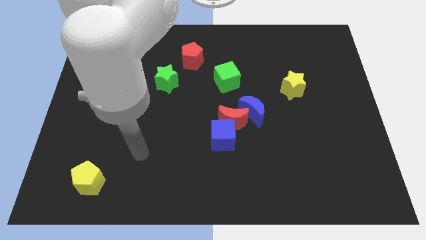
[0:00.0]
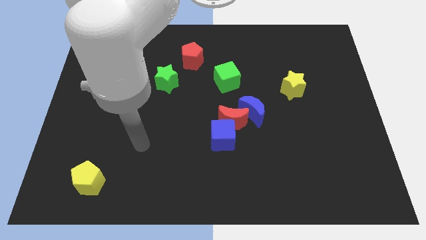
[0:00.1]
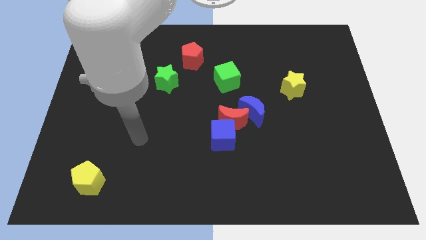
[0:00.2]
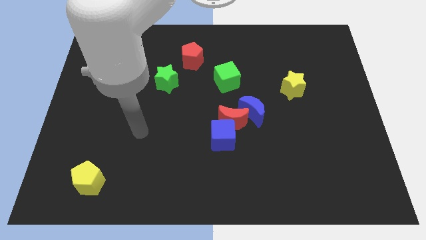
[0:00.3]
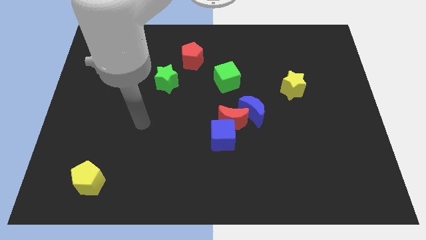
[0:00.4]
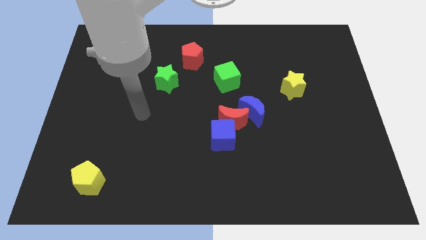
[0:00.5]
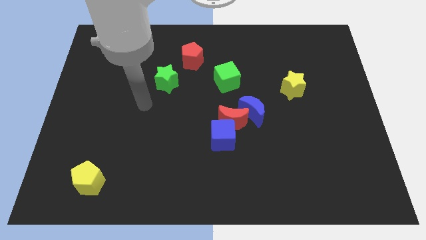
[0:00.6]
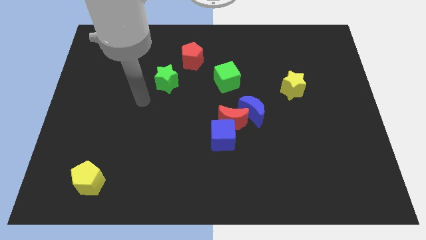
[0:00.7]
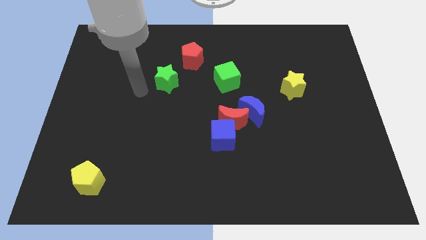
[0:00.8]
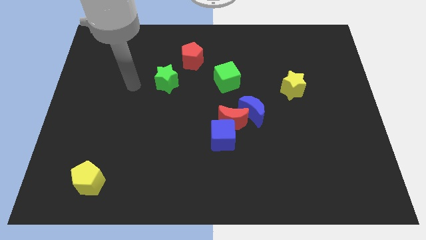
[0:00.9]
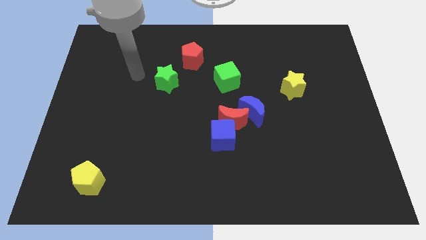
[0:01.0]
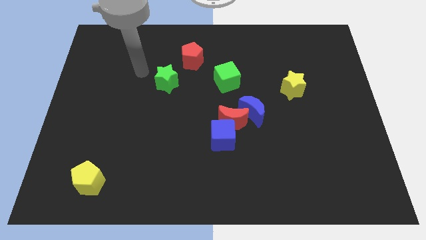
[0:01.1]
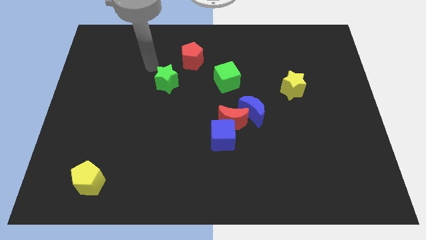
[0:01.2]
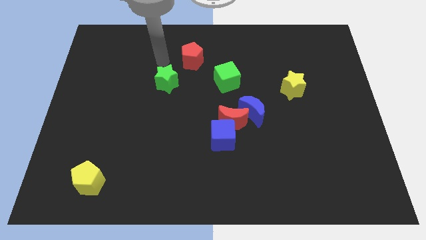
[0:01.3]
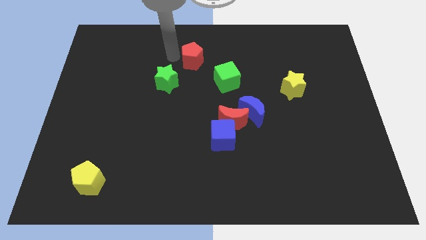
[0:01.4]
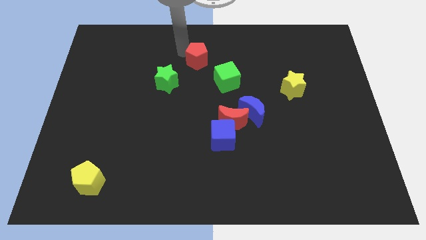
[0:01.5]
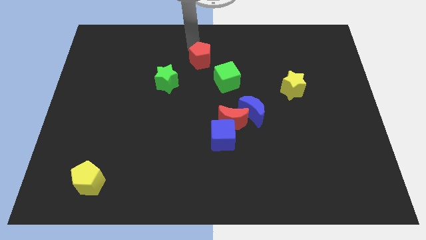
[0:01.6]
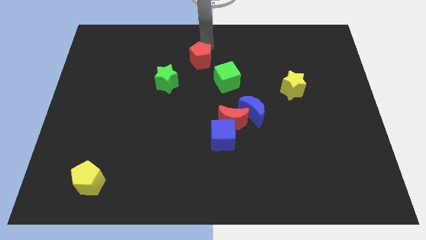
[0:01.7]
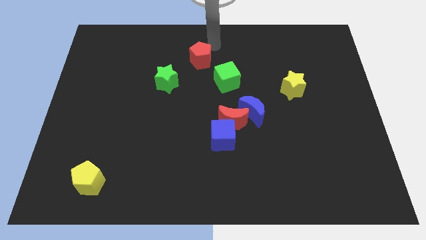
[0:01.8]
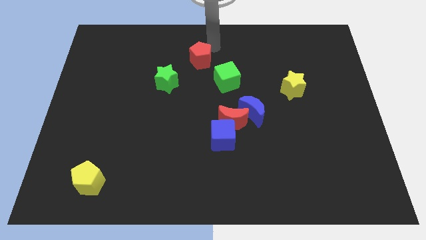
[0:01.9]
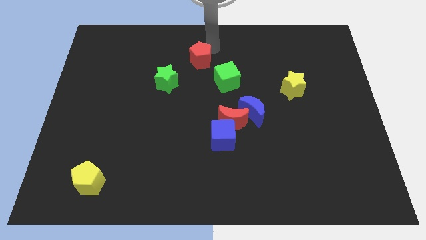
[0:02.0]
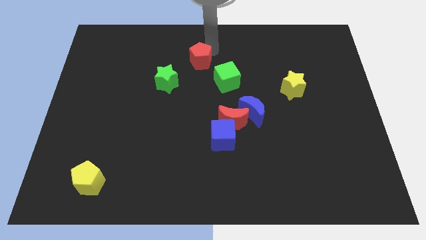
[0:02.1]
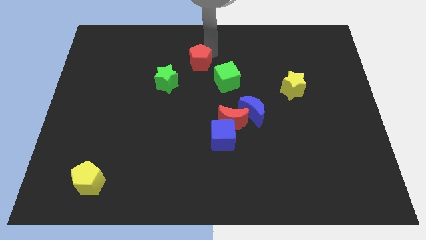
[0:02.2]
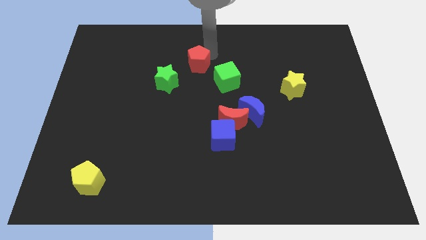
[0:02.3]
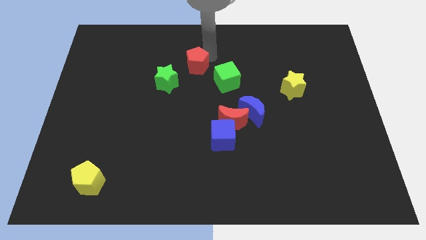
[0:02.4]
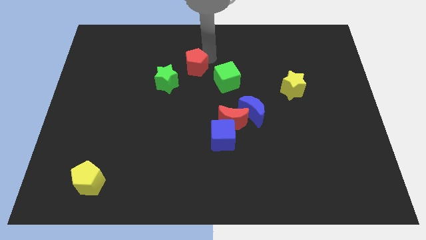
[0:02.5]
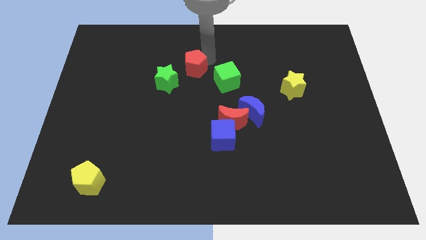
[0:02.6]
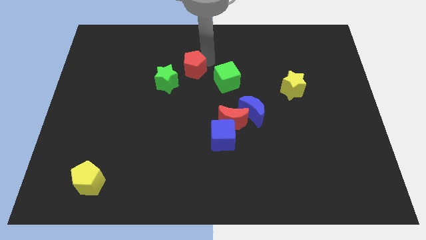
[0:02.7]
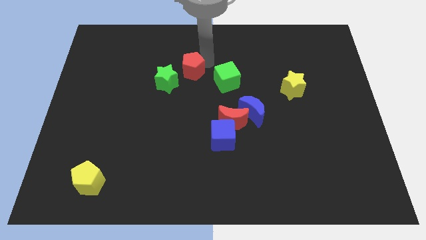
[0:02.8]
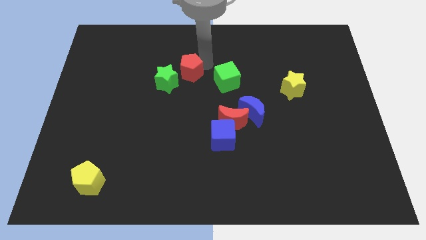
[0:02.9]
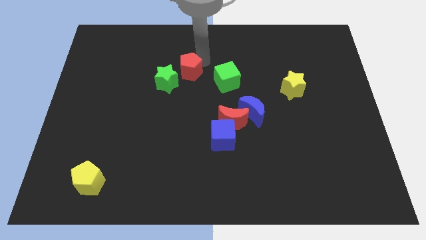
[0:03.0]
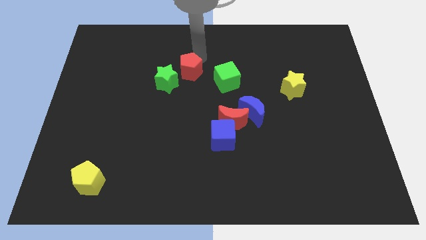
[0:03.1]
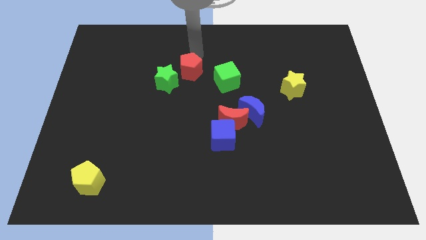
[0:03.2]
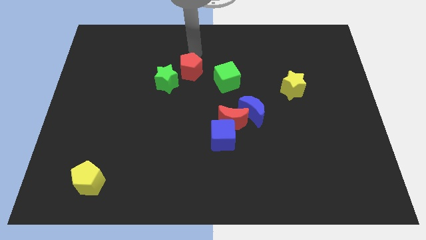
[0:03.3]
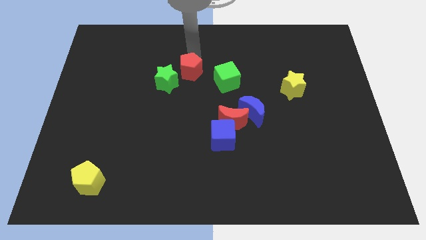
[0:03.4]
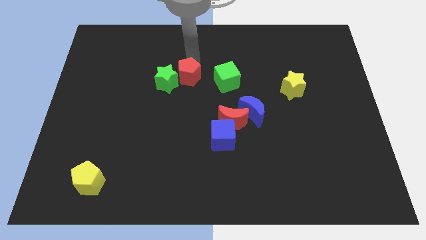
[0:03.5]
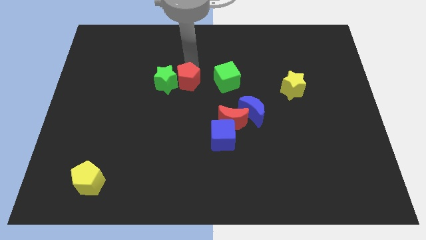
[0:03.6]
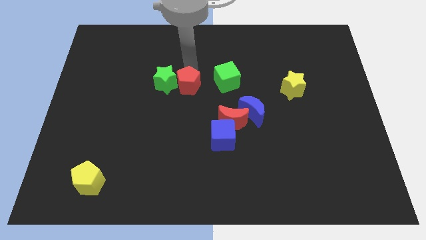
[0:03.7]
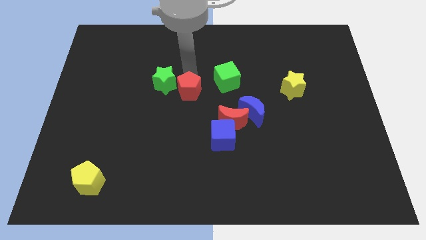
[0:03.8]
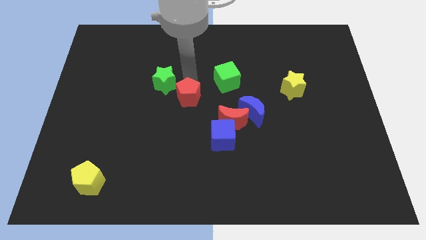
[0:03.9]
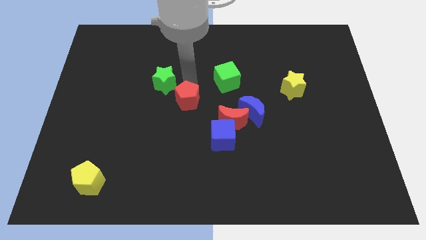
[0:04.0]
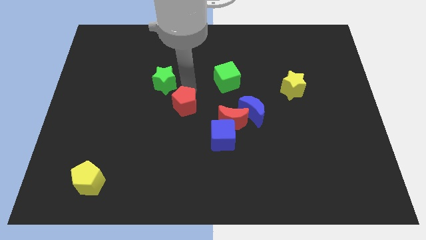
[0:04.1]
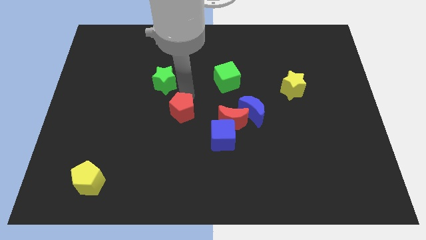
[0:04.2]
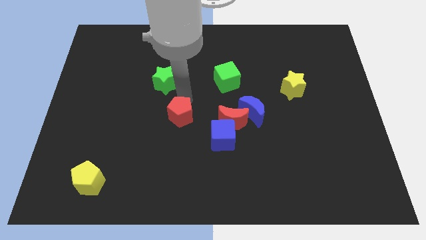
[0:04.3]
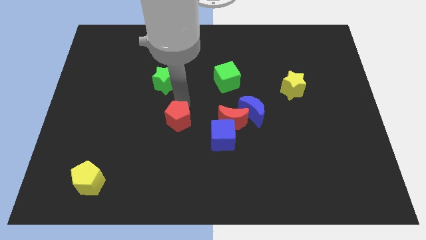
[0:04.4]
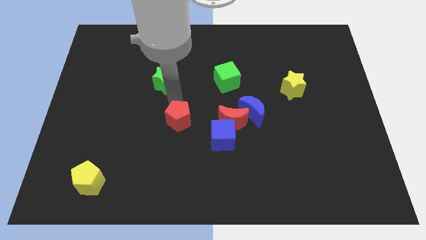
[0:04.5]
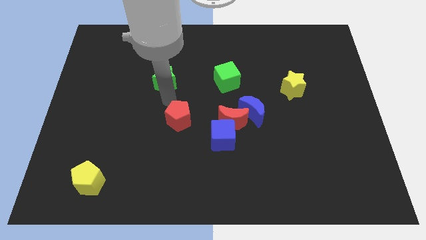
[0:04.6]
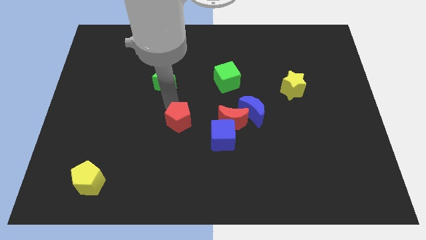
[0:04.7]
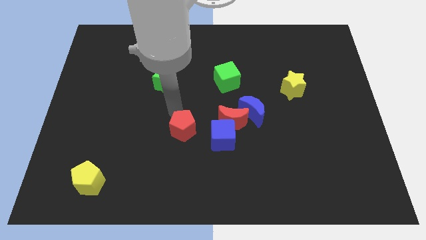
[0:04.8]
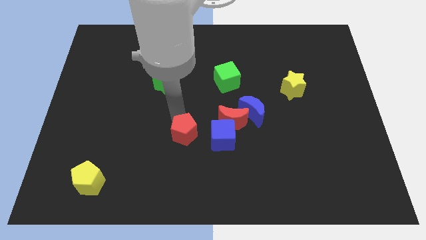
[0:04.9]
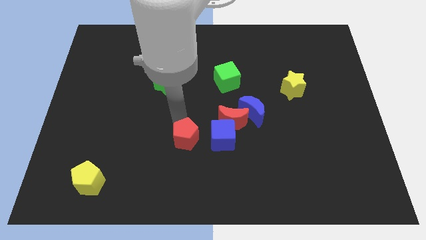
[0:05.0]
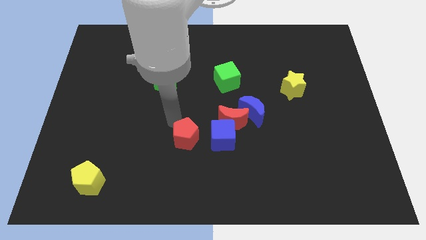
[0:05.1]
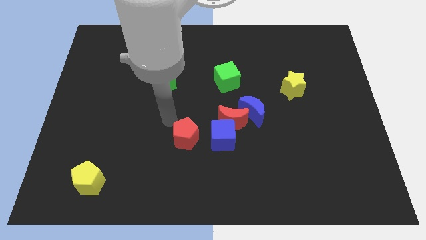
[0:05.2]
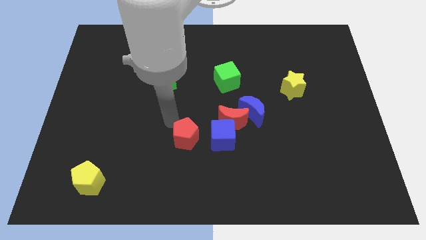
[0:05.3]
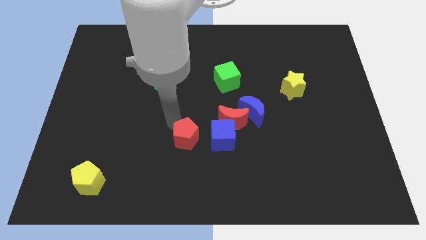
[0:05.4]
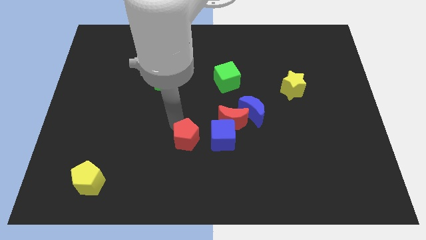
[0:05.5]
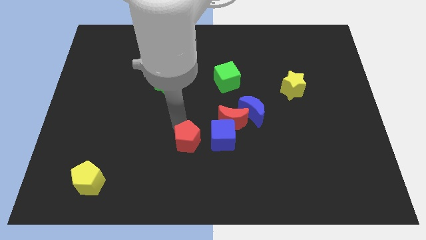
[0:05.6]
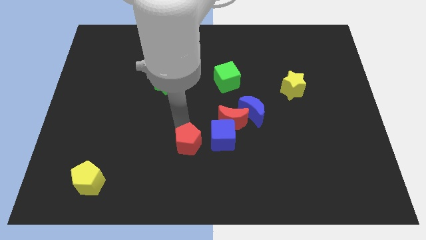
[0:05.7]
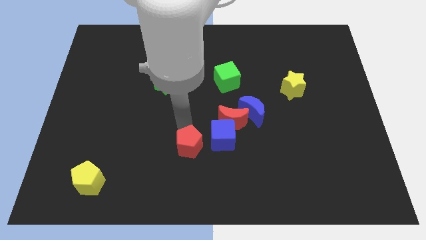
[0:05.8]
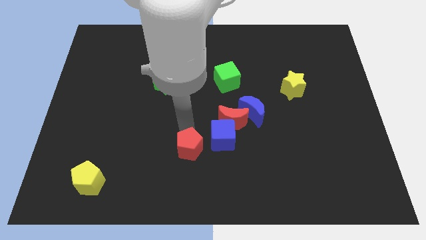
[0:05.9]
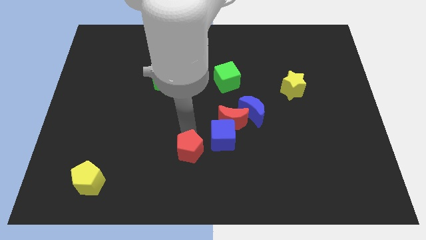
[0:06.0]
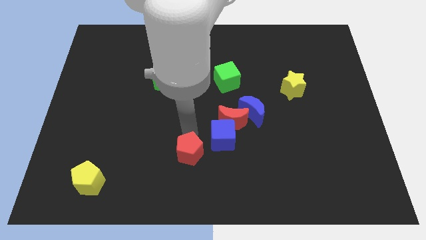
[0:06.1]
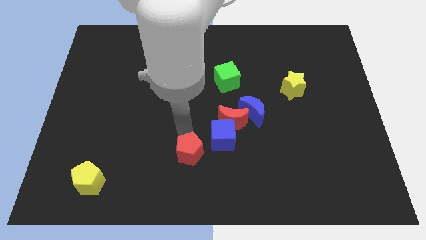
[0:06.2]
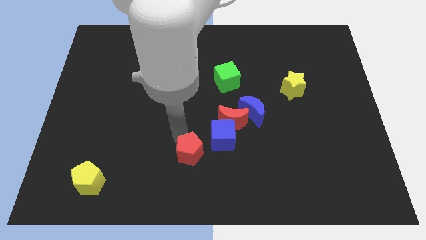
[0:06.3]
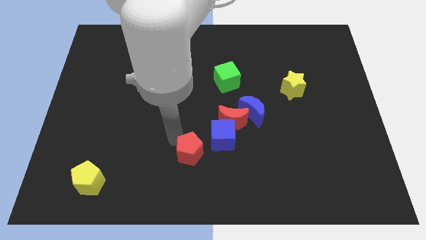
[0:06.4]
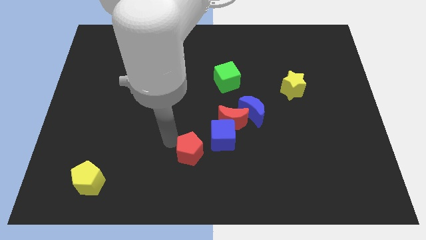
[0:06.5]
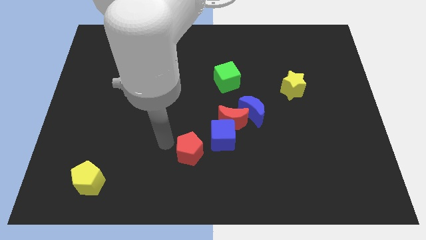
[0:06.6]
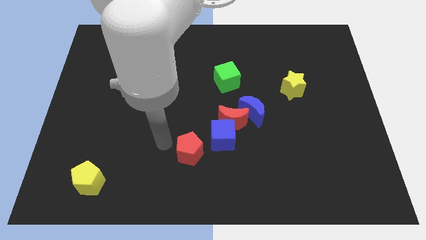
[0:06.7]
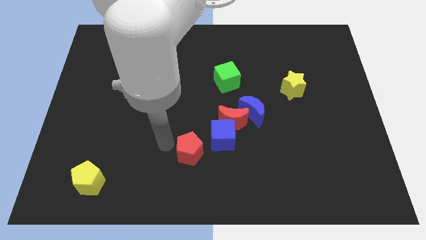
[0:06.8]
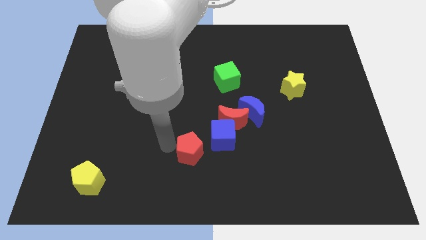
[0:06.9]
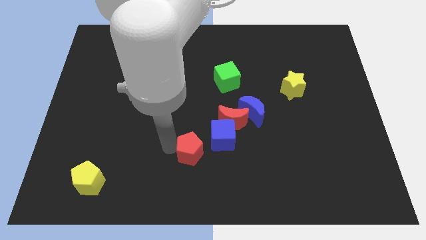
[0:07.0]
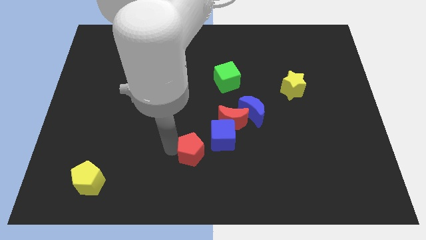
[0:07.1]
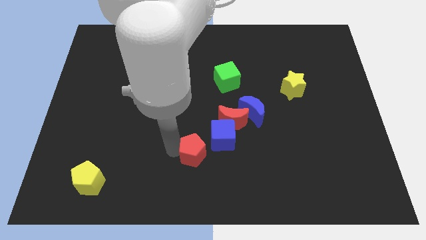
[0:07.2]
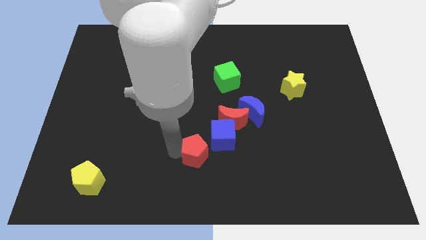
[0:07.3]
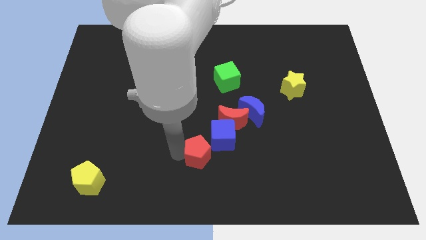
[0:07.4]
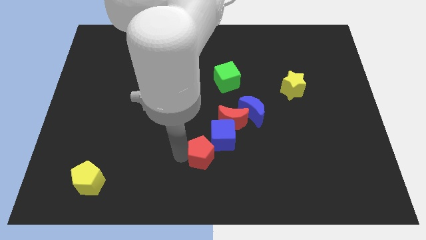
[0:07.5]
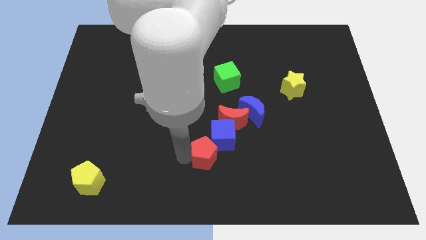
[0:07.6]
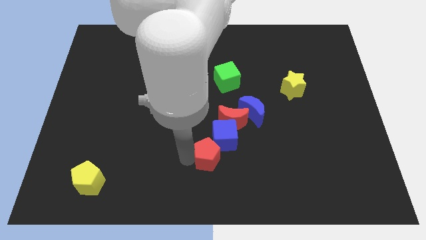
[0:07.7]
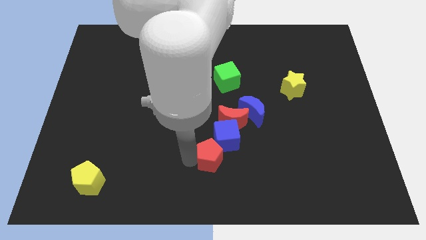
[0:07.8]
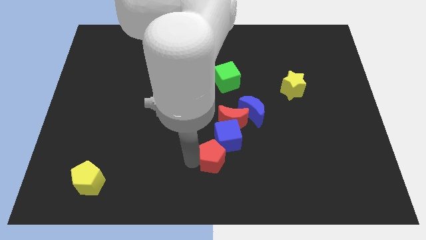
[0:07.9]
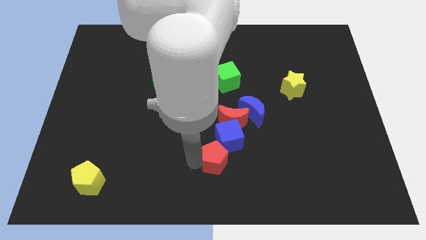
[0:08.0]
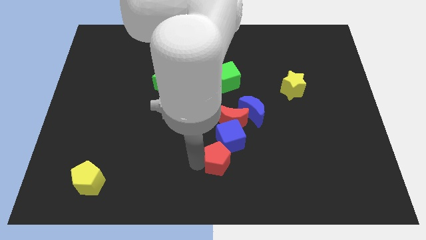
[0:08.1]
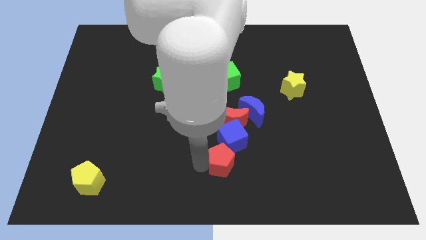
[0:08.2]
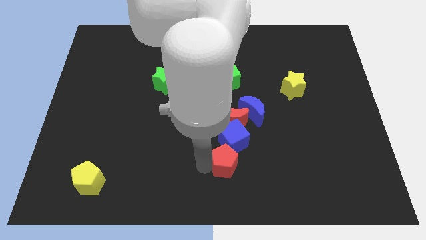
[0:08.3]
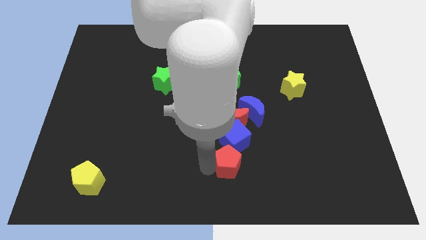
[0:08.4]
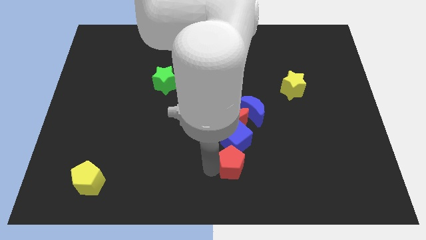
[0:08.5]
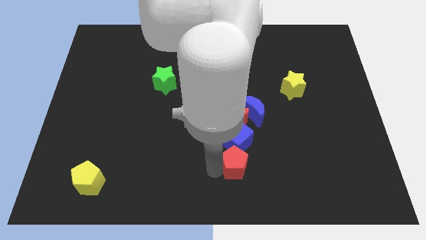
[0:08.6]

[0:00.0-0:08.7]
put the red pentagon diagonally down and to the right of the blue cube
